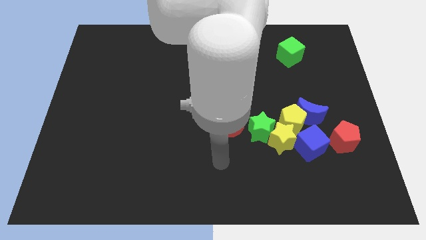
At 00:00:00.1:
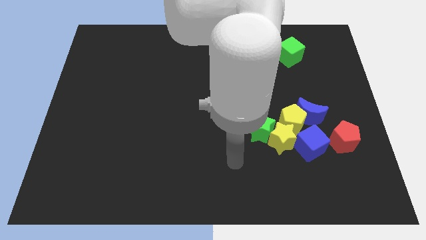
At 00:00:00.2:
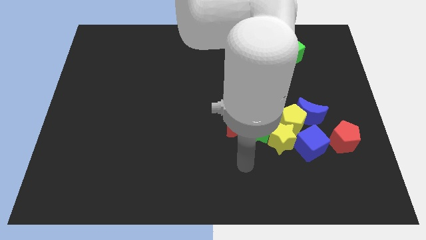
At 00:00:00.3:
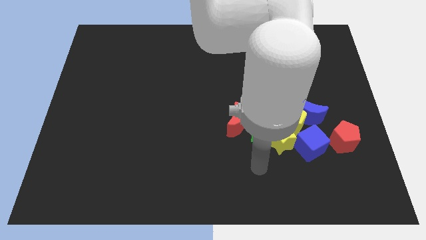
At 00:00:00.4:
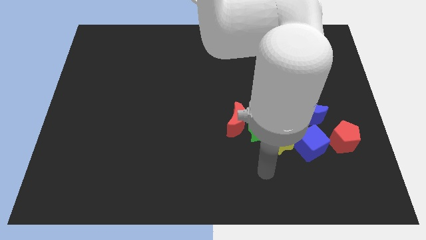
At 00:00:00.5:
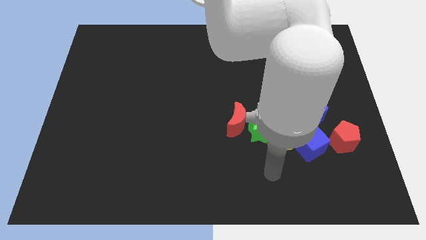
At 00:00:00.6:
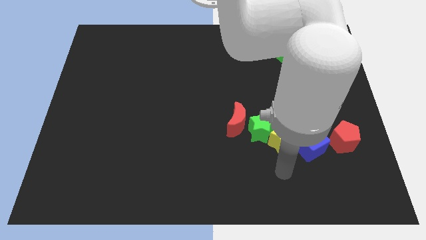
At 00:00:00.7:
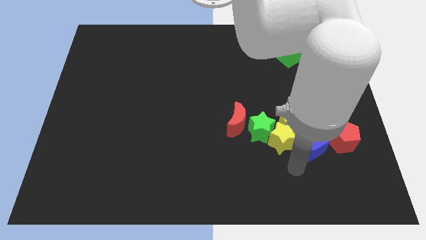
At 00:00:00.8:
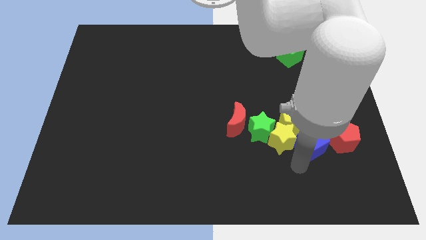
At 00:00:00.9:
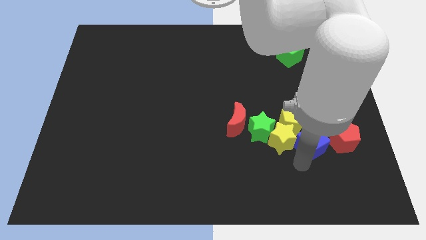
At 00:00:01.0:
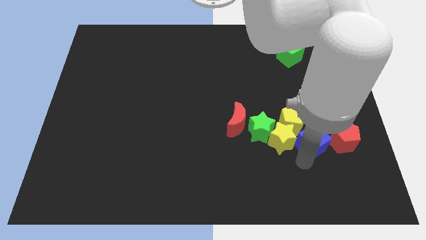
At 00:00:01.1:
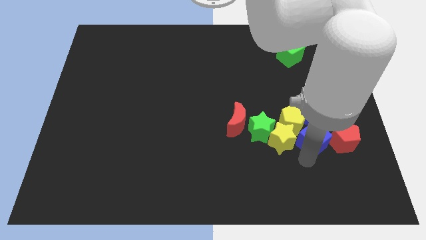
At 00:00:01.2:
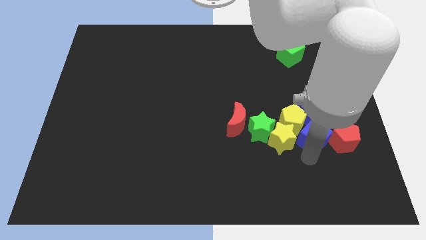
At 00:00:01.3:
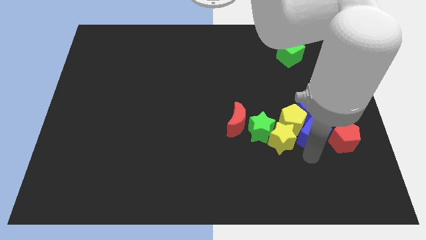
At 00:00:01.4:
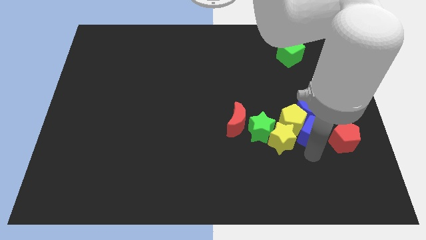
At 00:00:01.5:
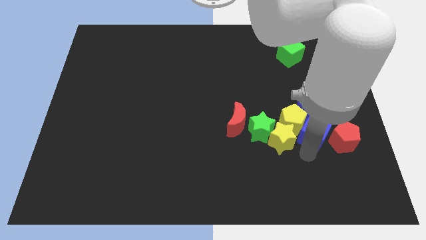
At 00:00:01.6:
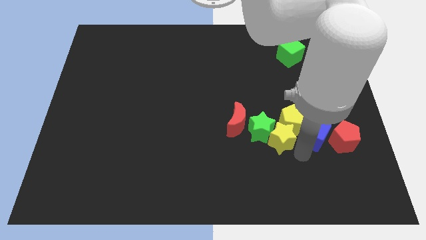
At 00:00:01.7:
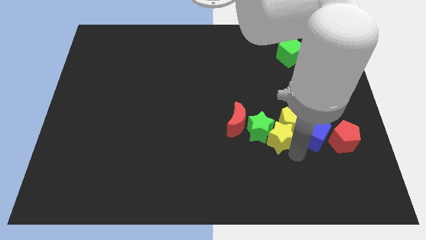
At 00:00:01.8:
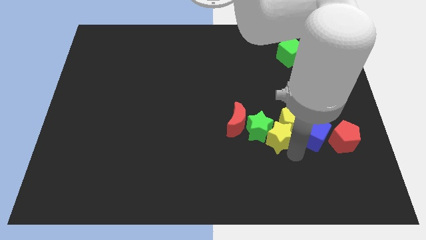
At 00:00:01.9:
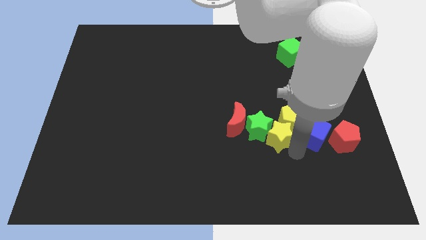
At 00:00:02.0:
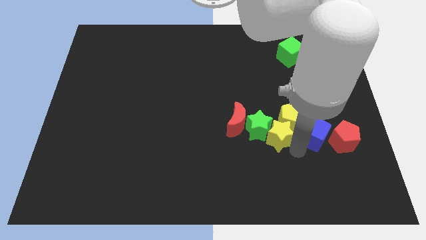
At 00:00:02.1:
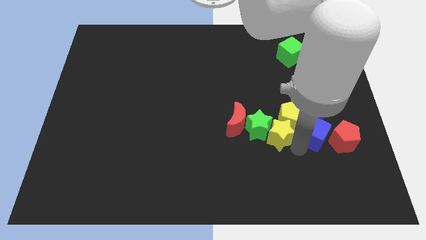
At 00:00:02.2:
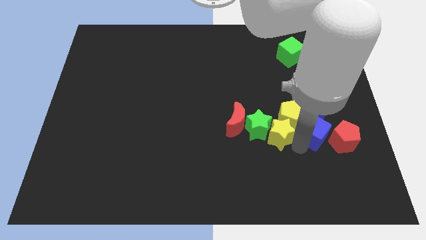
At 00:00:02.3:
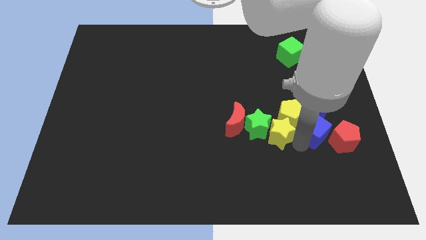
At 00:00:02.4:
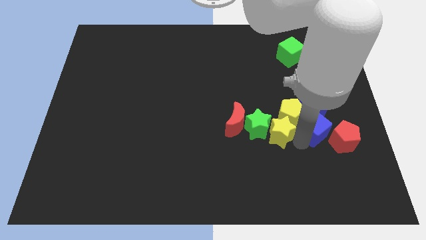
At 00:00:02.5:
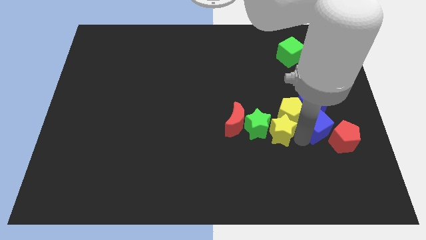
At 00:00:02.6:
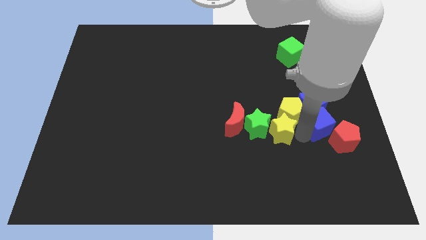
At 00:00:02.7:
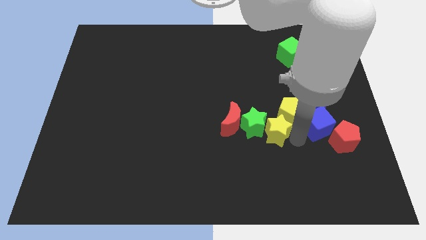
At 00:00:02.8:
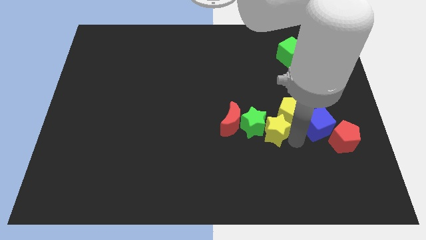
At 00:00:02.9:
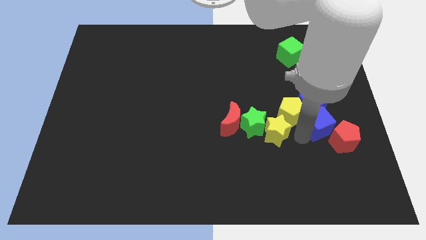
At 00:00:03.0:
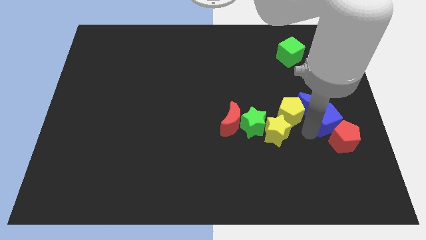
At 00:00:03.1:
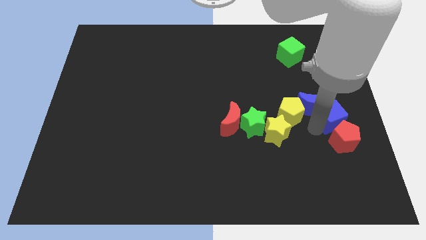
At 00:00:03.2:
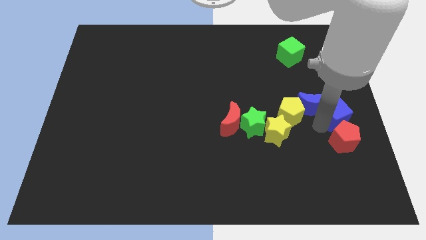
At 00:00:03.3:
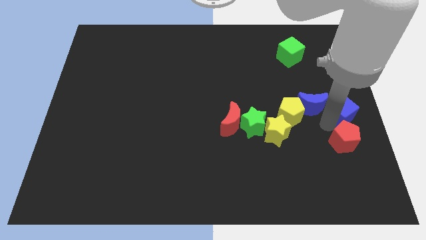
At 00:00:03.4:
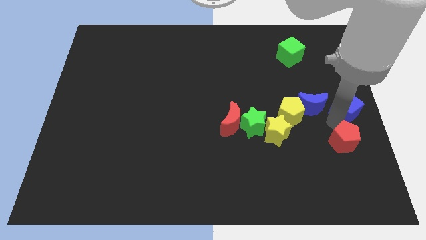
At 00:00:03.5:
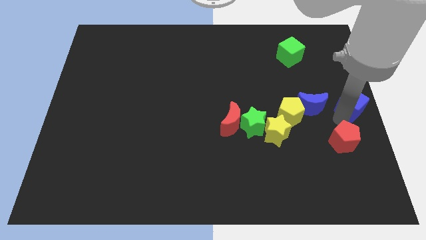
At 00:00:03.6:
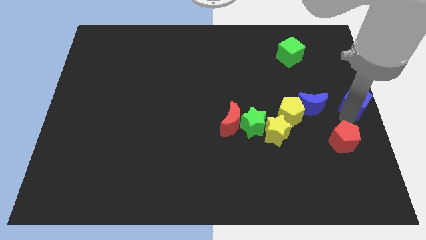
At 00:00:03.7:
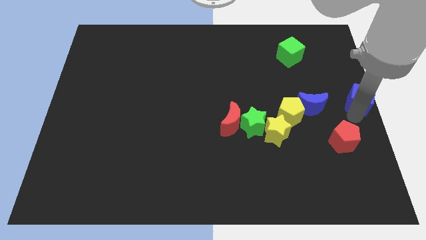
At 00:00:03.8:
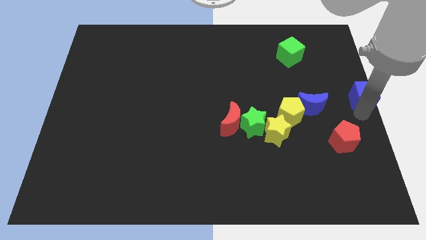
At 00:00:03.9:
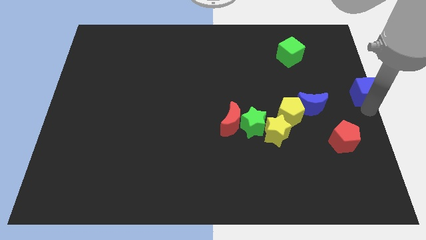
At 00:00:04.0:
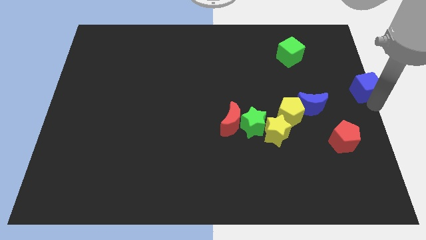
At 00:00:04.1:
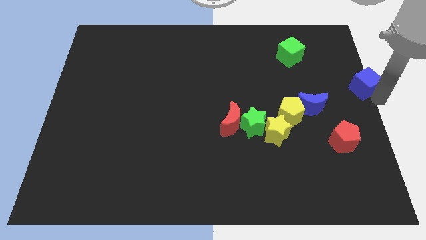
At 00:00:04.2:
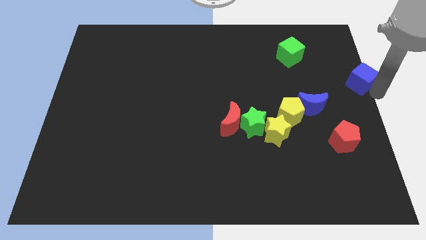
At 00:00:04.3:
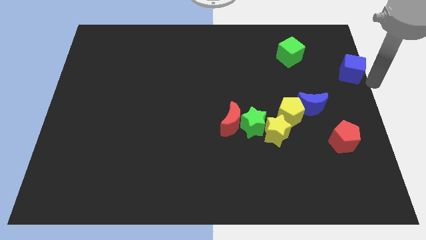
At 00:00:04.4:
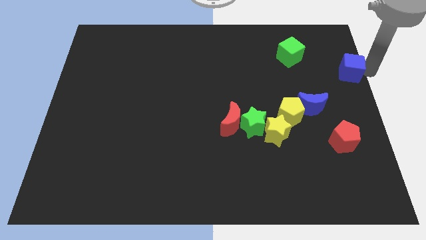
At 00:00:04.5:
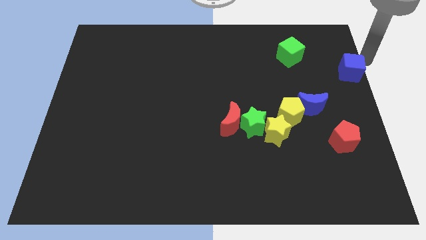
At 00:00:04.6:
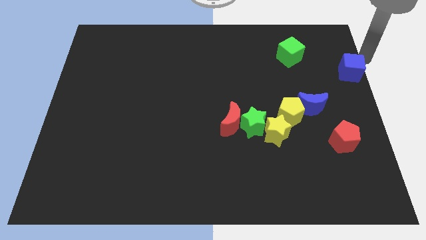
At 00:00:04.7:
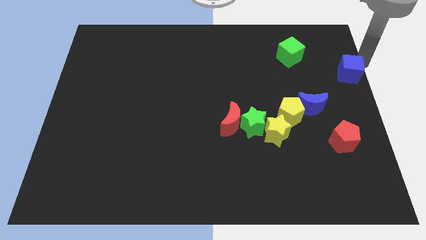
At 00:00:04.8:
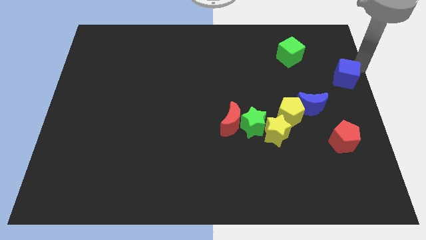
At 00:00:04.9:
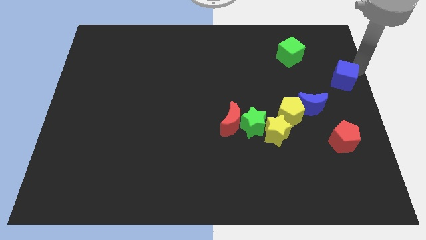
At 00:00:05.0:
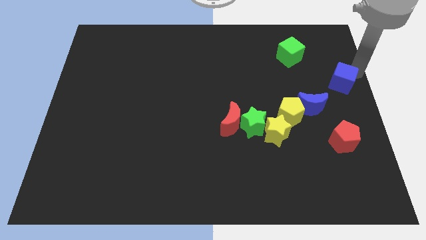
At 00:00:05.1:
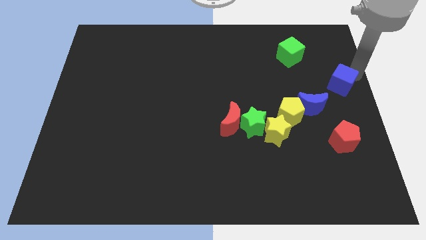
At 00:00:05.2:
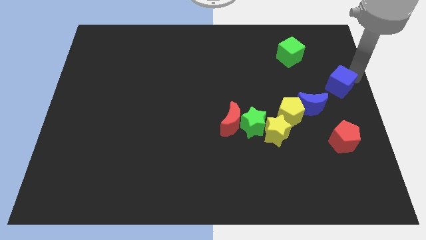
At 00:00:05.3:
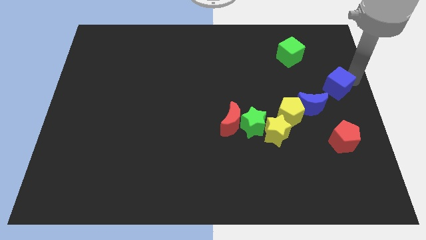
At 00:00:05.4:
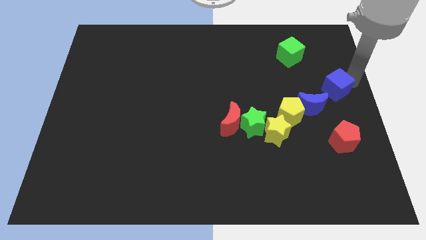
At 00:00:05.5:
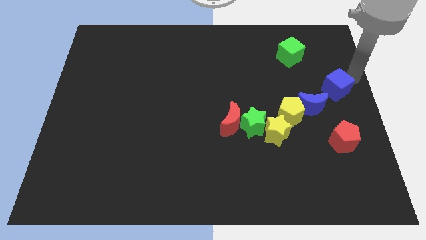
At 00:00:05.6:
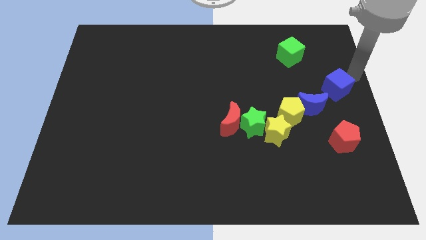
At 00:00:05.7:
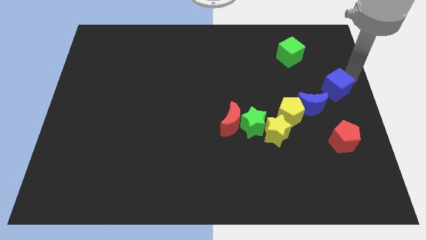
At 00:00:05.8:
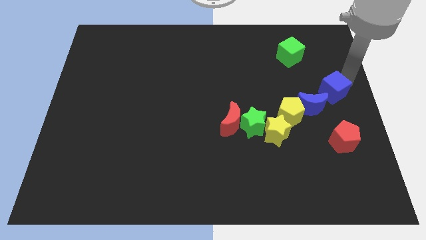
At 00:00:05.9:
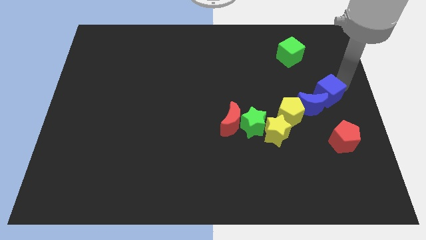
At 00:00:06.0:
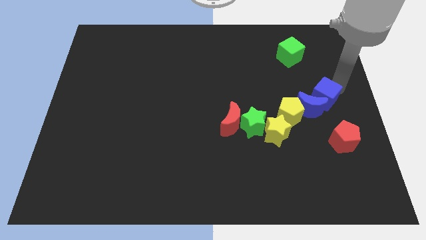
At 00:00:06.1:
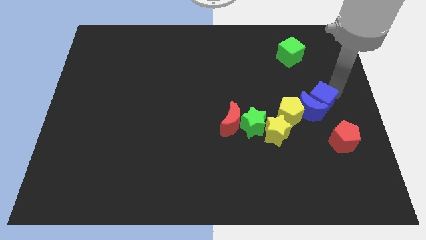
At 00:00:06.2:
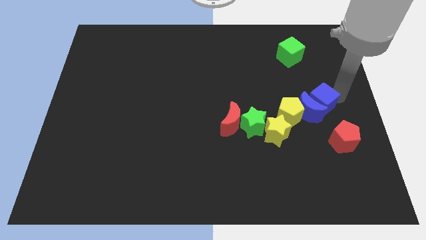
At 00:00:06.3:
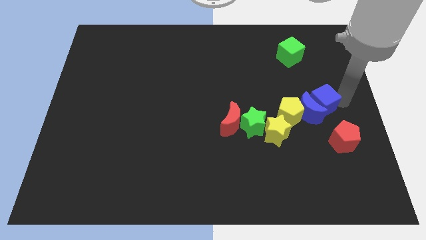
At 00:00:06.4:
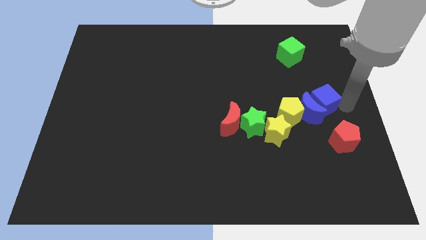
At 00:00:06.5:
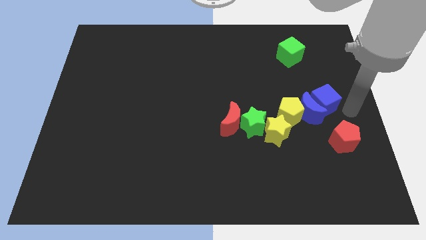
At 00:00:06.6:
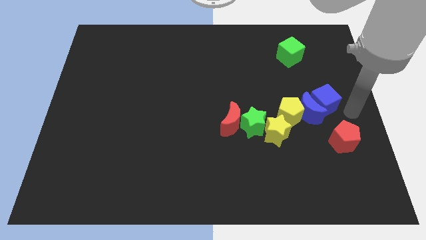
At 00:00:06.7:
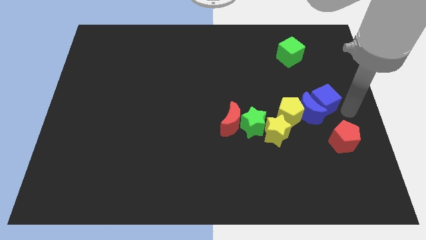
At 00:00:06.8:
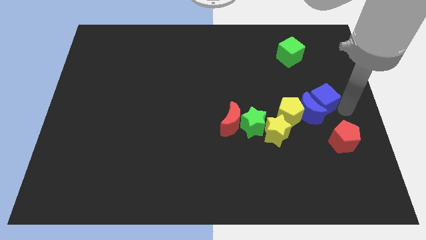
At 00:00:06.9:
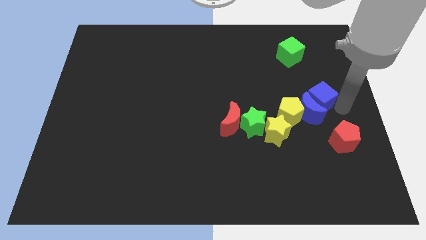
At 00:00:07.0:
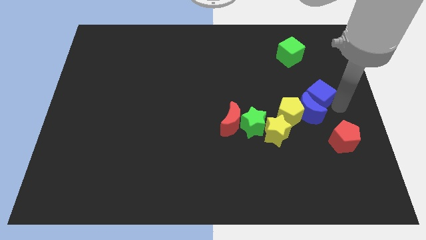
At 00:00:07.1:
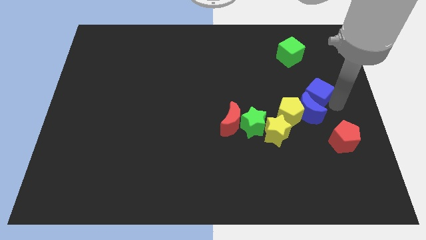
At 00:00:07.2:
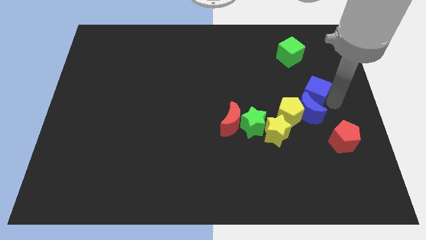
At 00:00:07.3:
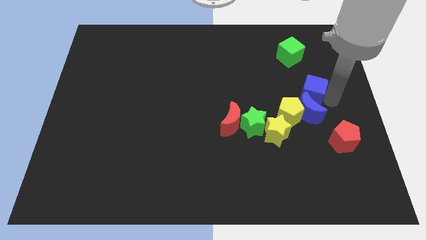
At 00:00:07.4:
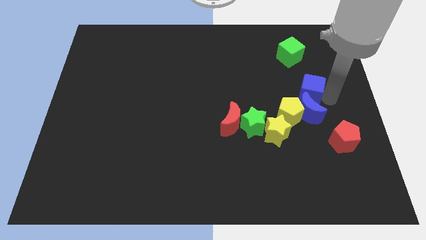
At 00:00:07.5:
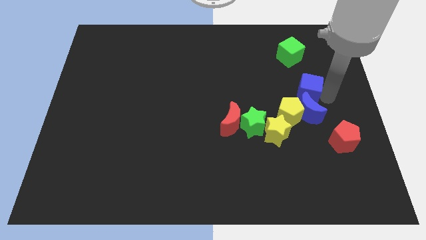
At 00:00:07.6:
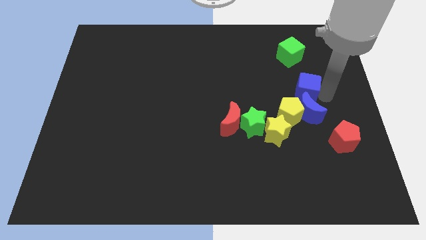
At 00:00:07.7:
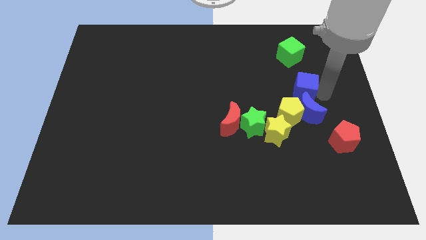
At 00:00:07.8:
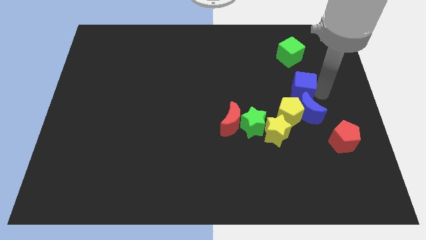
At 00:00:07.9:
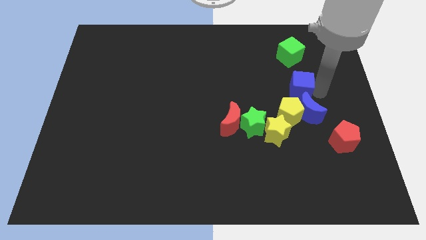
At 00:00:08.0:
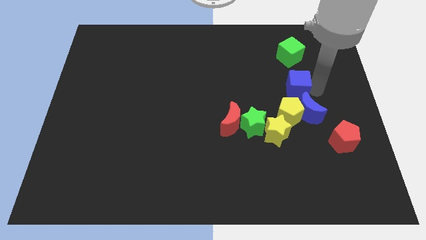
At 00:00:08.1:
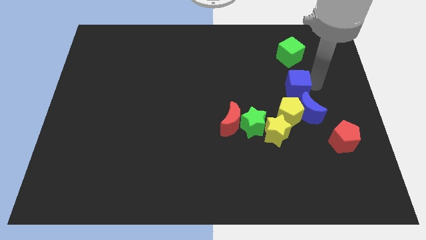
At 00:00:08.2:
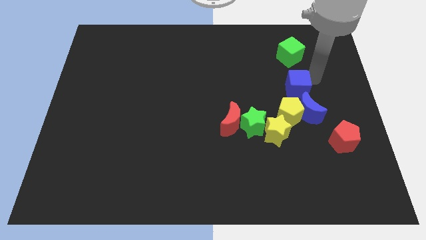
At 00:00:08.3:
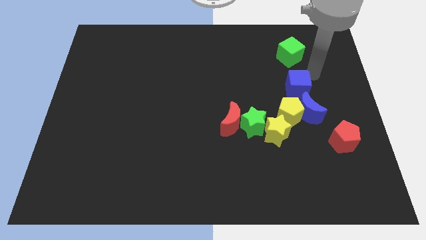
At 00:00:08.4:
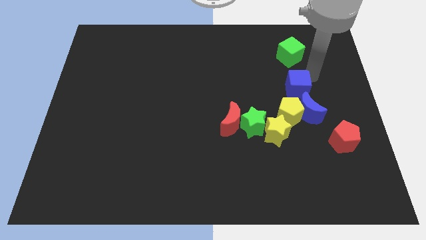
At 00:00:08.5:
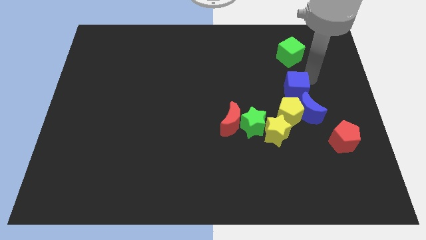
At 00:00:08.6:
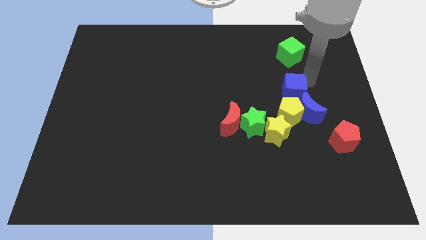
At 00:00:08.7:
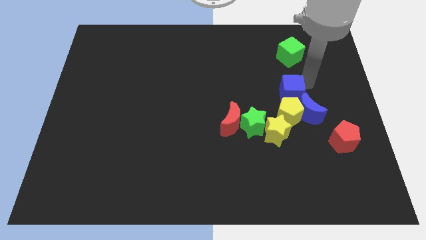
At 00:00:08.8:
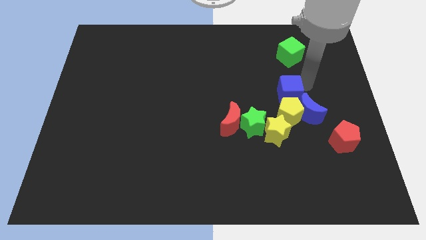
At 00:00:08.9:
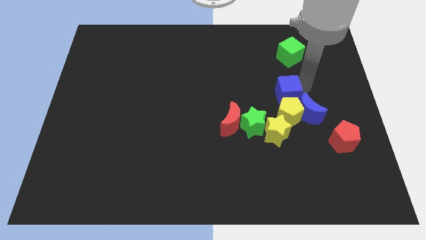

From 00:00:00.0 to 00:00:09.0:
move the blue cube to the top right of the green star
